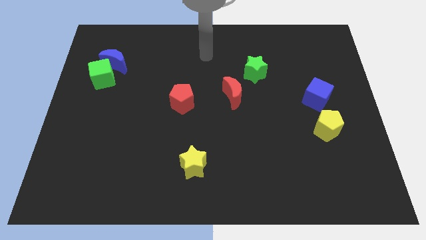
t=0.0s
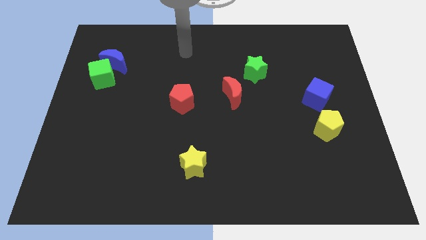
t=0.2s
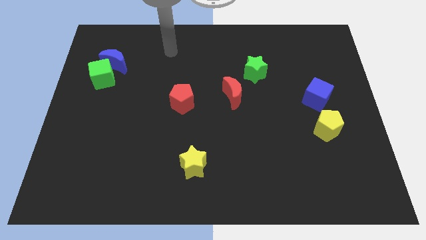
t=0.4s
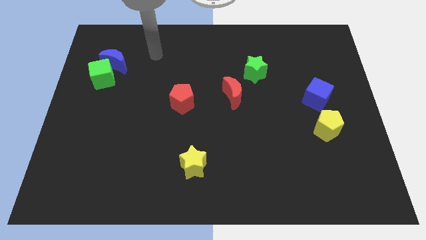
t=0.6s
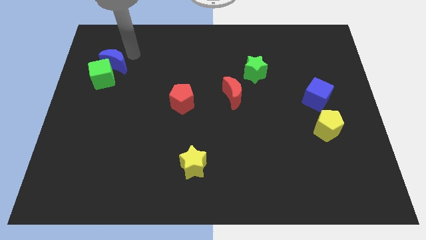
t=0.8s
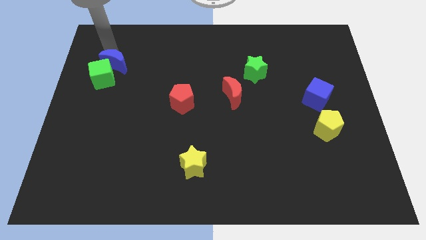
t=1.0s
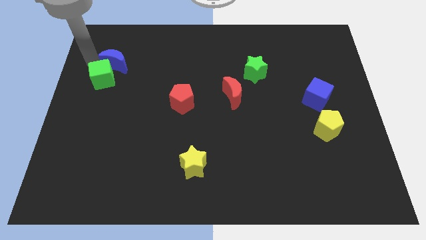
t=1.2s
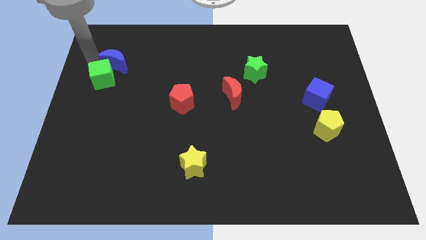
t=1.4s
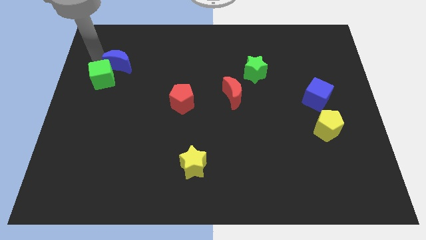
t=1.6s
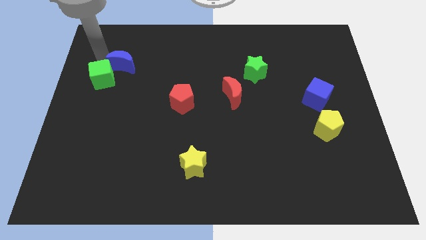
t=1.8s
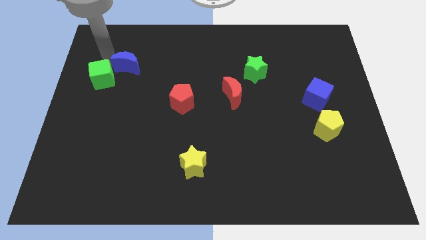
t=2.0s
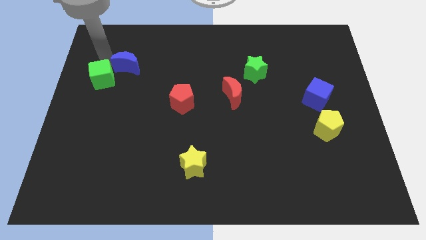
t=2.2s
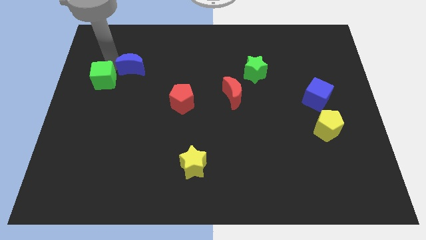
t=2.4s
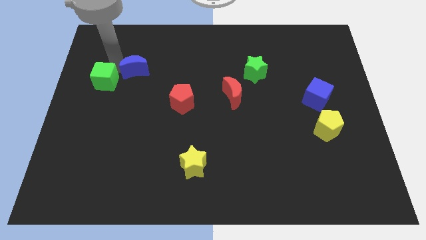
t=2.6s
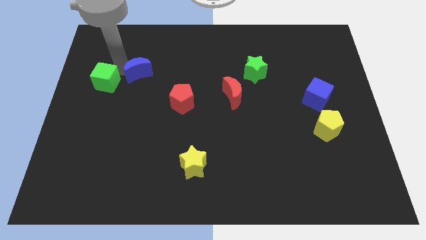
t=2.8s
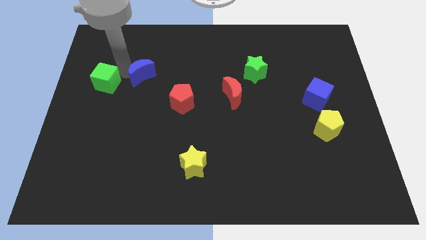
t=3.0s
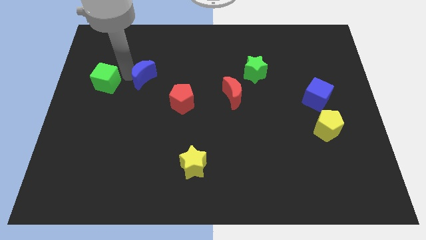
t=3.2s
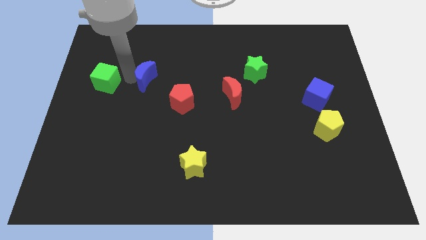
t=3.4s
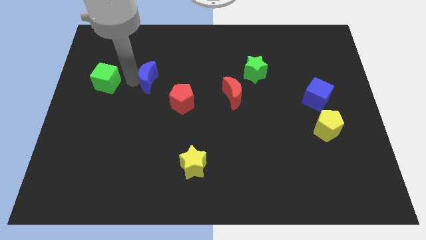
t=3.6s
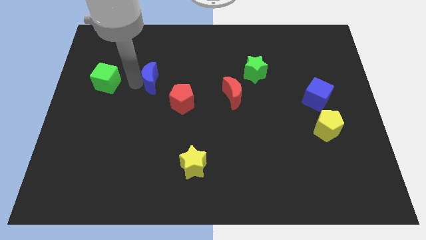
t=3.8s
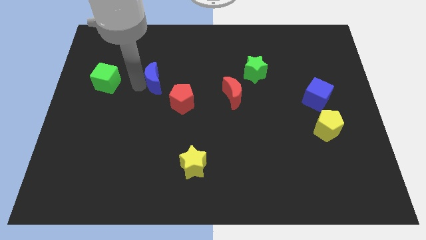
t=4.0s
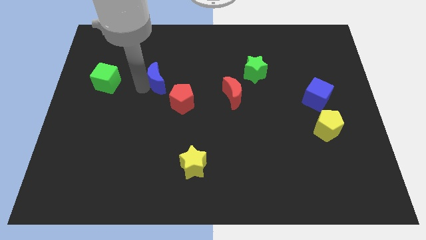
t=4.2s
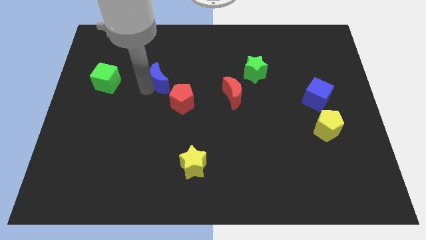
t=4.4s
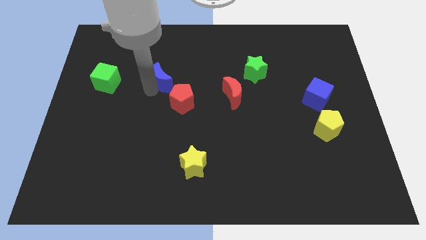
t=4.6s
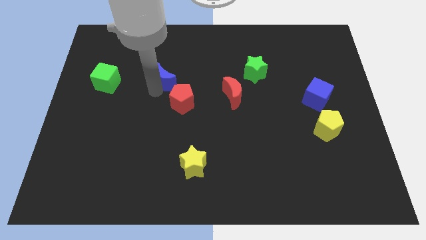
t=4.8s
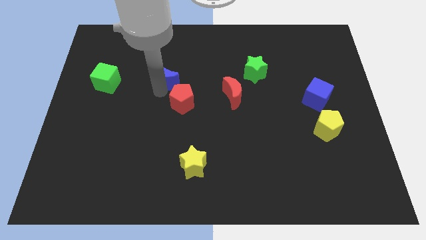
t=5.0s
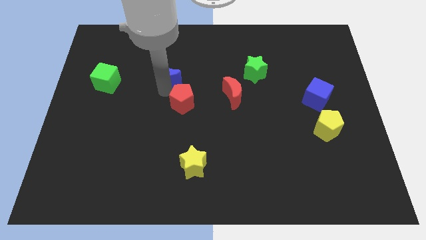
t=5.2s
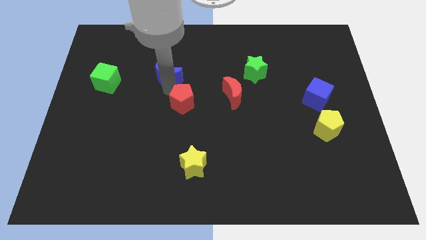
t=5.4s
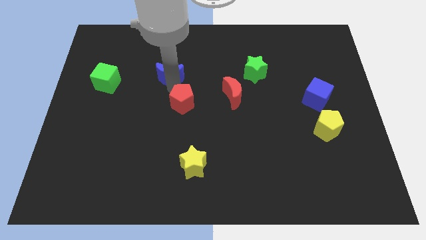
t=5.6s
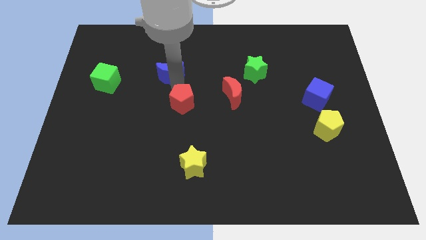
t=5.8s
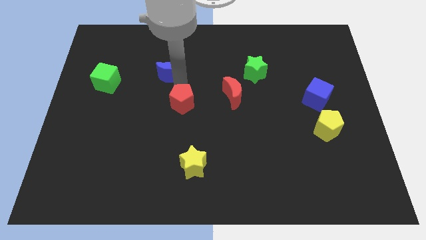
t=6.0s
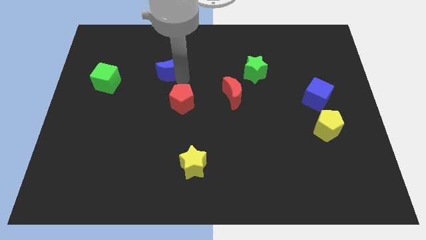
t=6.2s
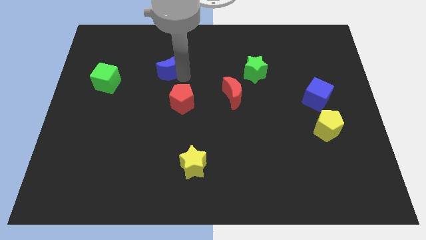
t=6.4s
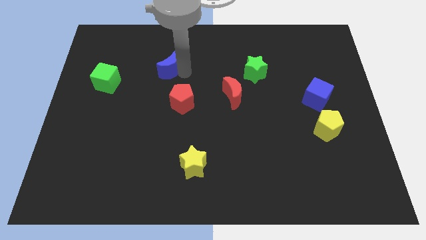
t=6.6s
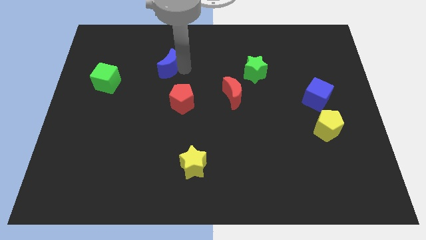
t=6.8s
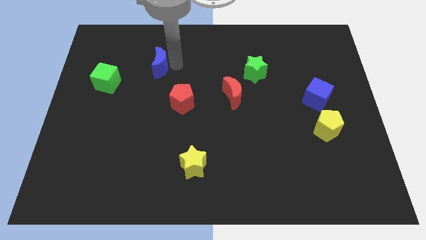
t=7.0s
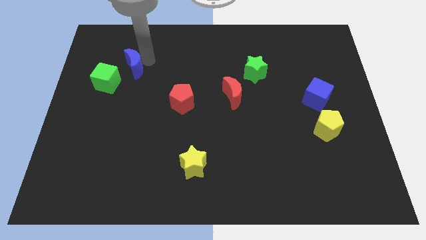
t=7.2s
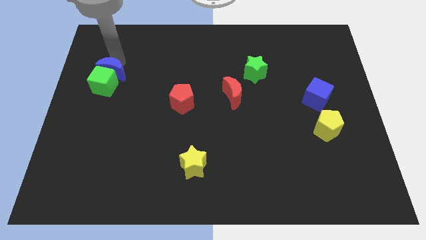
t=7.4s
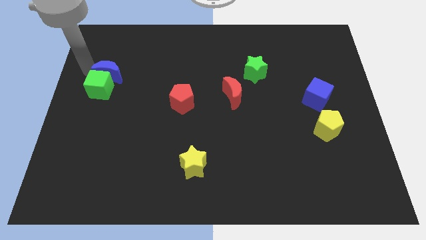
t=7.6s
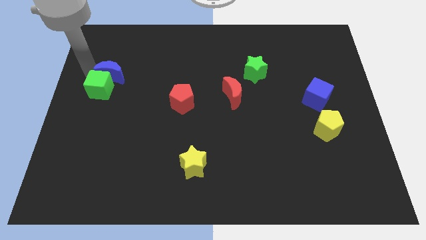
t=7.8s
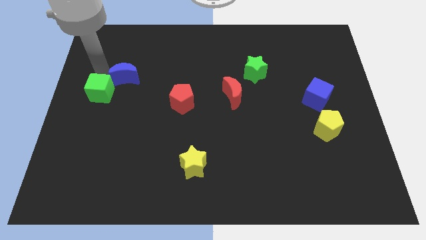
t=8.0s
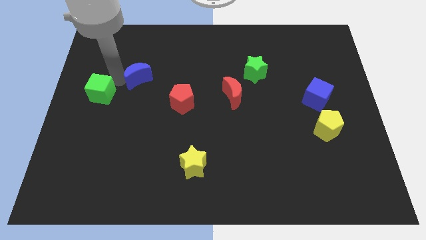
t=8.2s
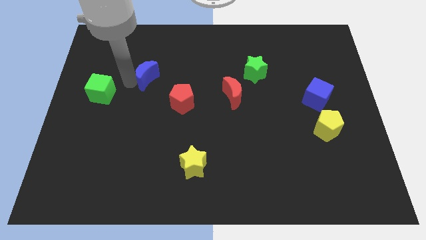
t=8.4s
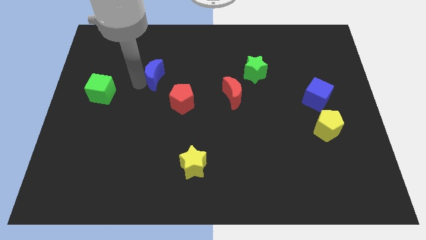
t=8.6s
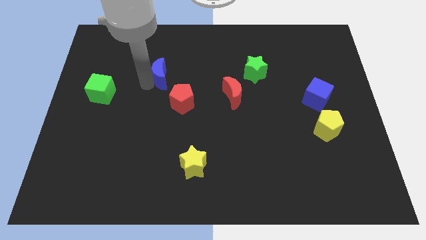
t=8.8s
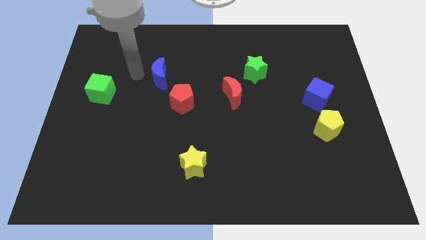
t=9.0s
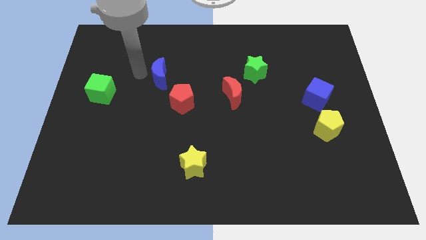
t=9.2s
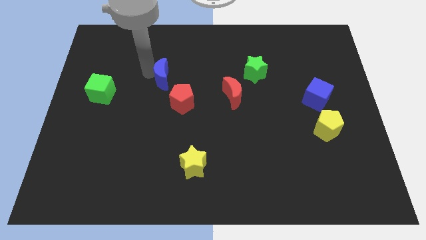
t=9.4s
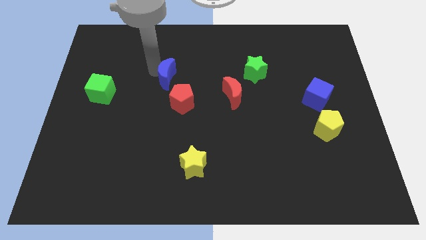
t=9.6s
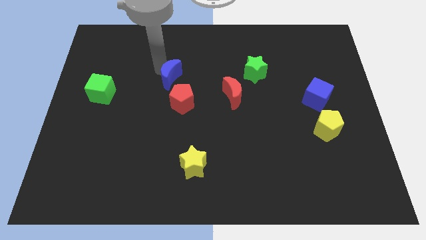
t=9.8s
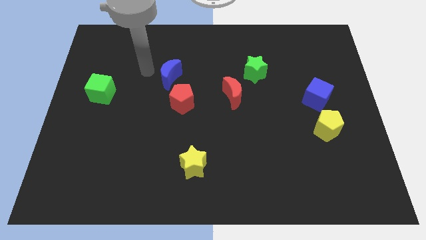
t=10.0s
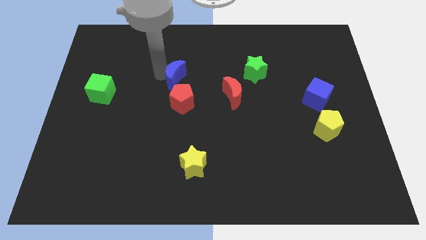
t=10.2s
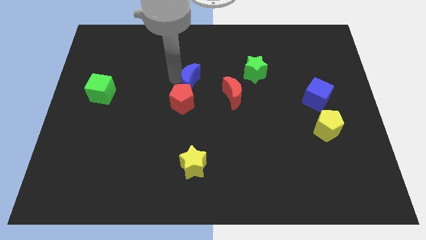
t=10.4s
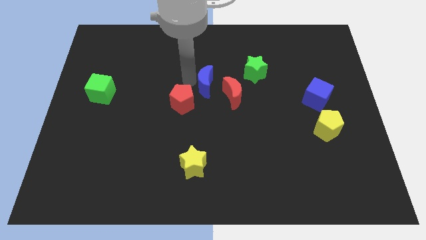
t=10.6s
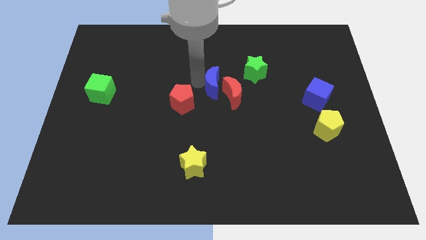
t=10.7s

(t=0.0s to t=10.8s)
push the blue moon towards the red moon

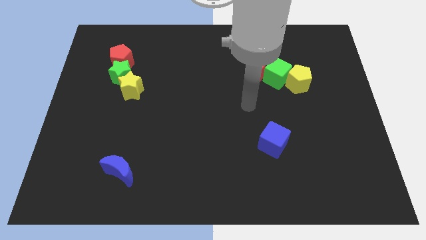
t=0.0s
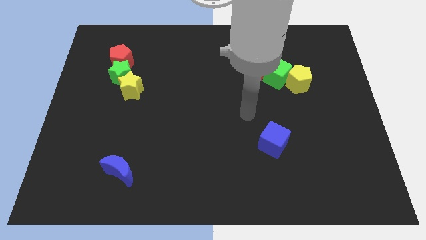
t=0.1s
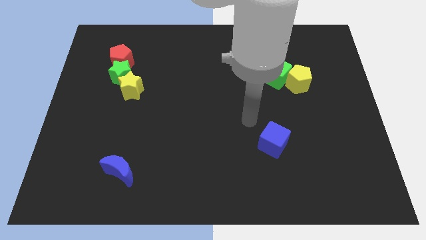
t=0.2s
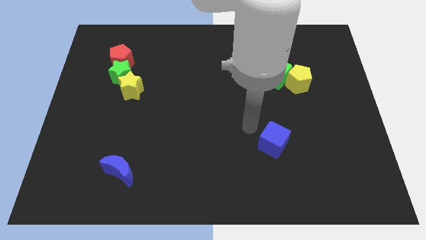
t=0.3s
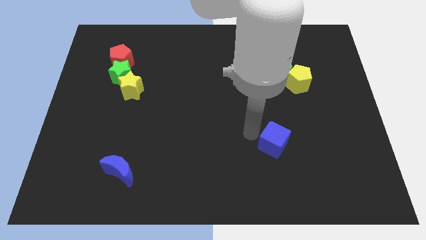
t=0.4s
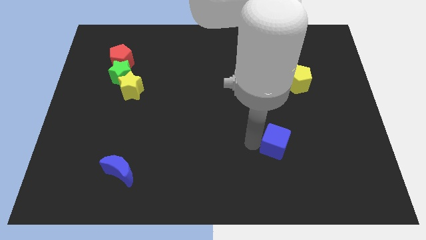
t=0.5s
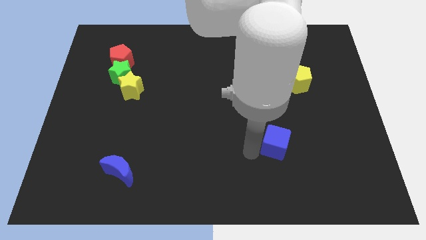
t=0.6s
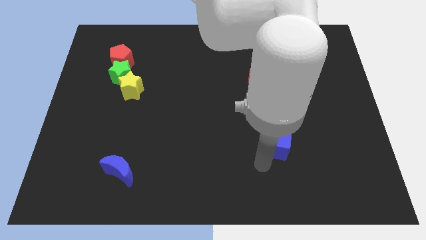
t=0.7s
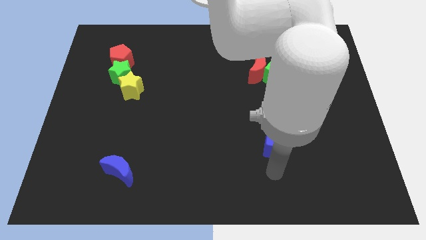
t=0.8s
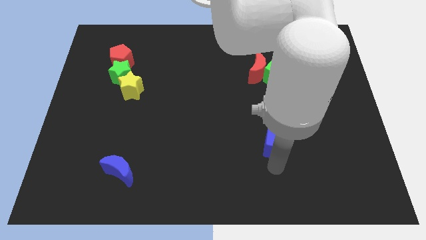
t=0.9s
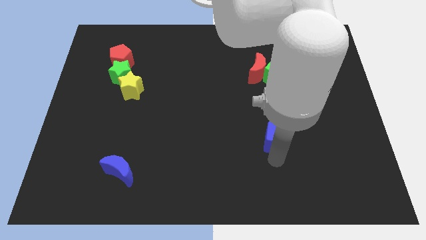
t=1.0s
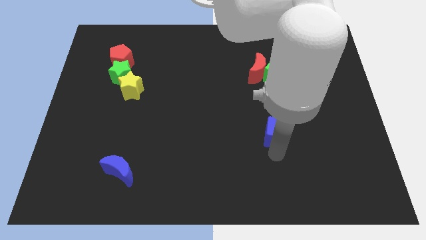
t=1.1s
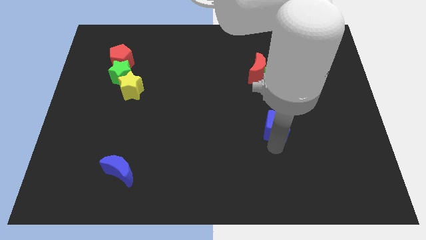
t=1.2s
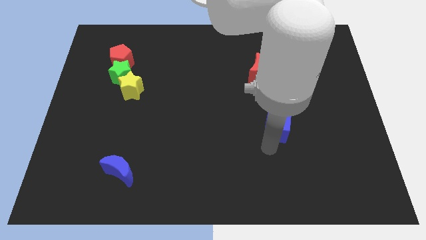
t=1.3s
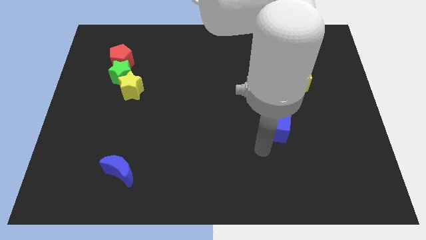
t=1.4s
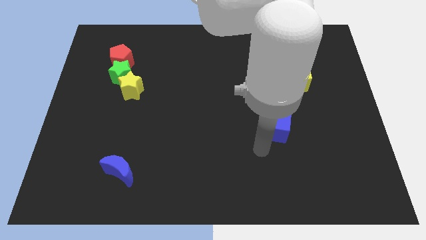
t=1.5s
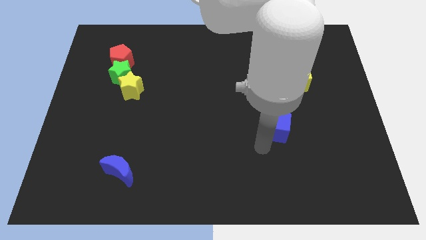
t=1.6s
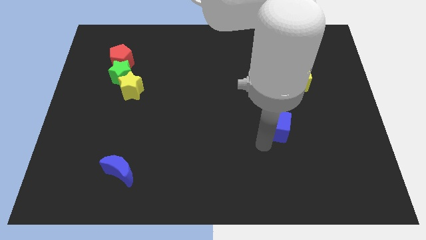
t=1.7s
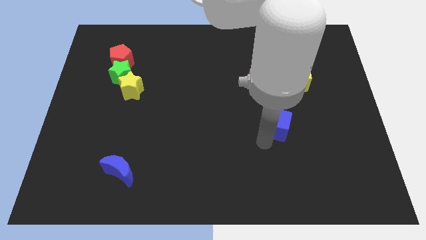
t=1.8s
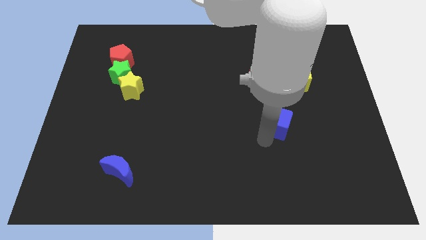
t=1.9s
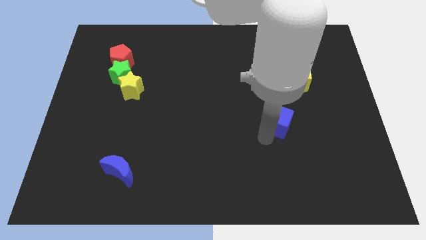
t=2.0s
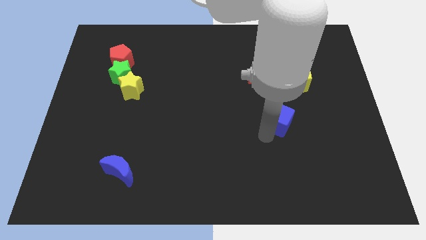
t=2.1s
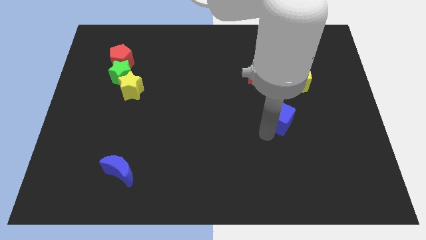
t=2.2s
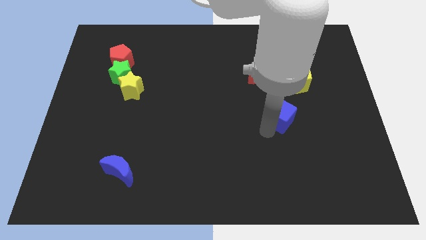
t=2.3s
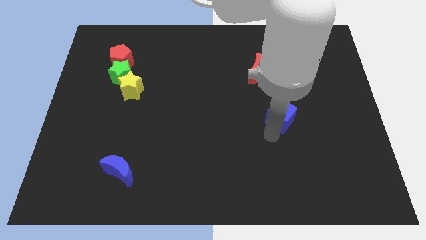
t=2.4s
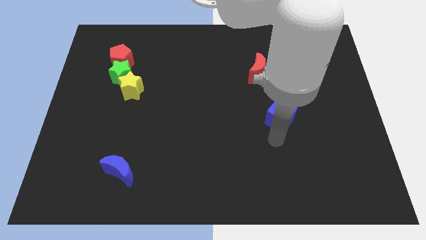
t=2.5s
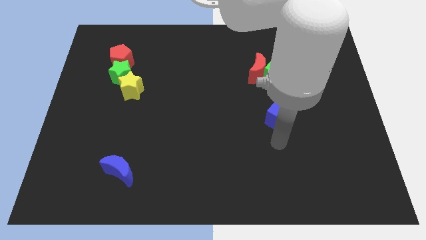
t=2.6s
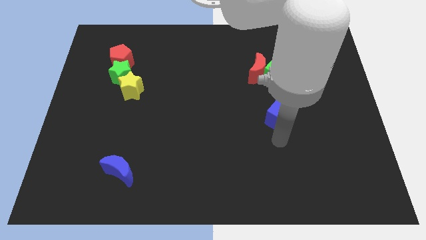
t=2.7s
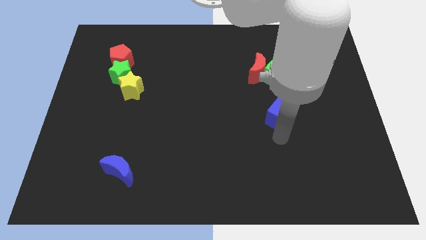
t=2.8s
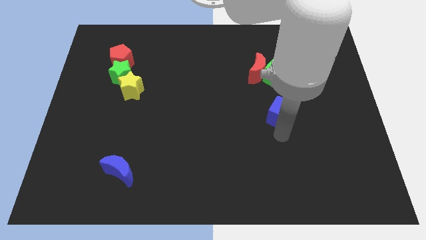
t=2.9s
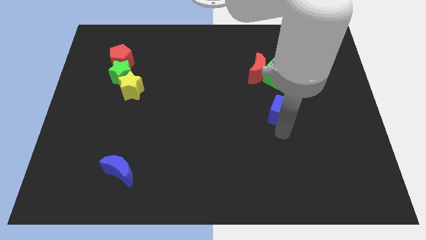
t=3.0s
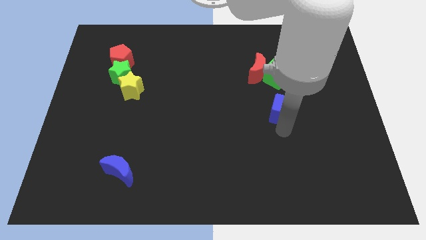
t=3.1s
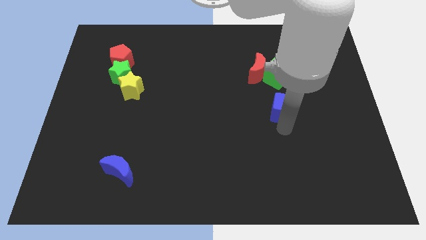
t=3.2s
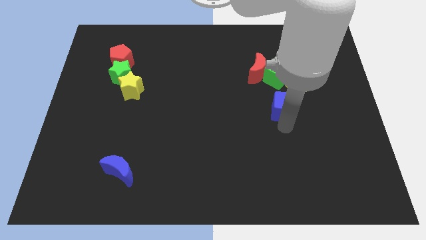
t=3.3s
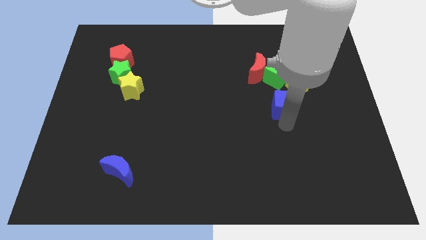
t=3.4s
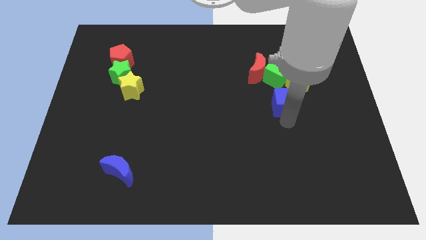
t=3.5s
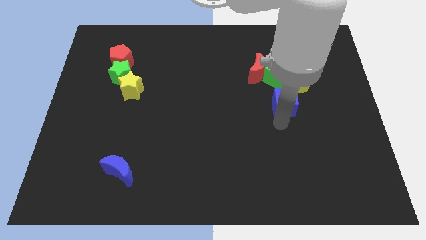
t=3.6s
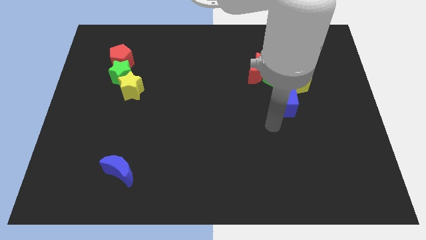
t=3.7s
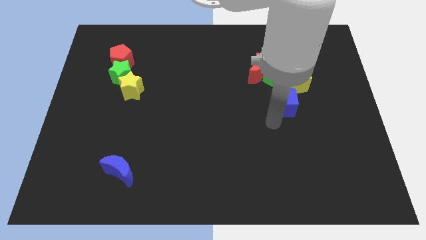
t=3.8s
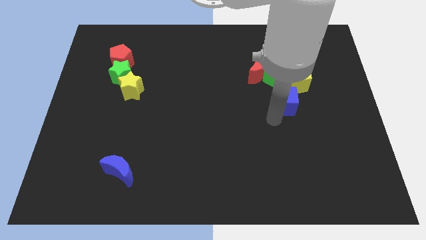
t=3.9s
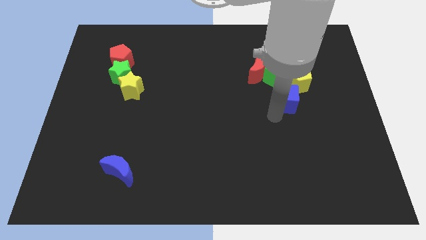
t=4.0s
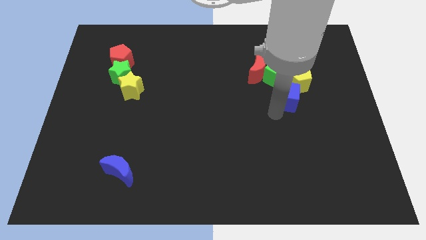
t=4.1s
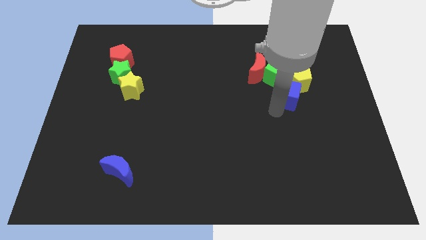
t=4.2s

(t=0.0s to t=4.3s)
push the blue cube towards the yellow pentagon
